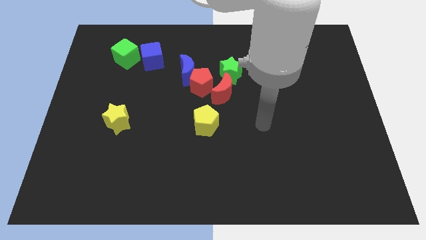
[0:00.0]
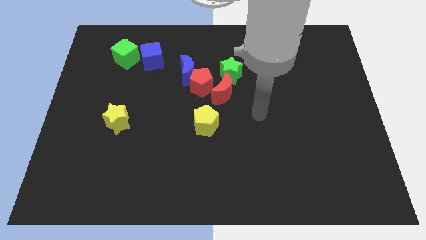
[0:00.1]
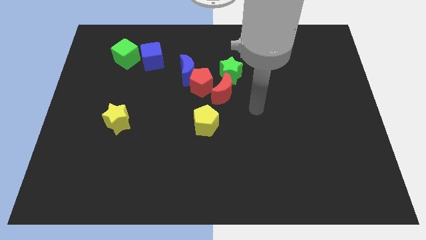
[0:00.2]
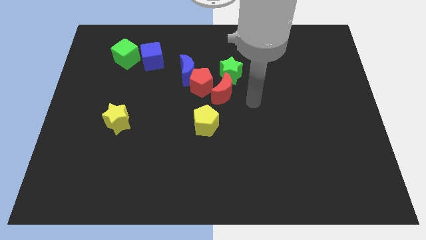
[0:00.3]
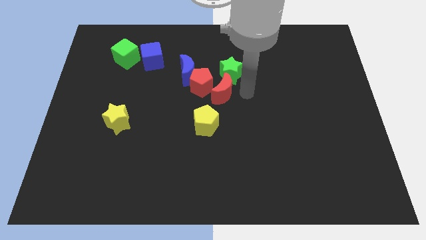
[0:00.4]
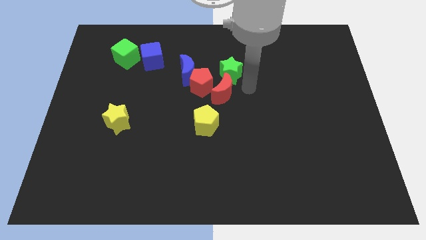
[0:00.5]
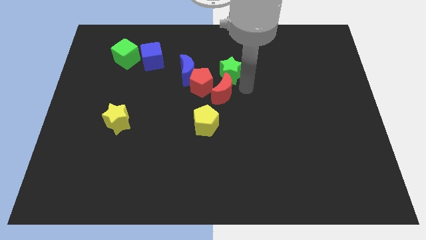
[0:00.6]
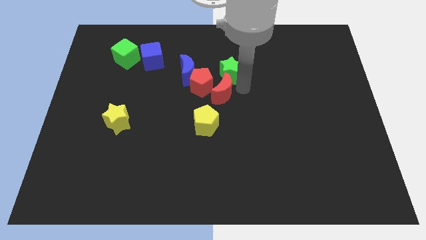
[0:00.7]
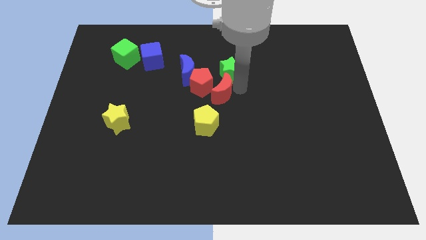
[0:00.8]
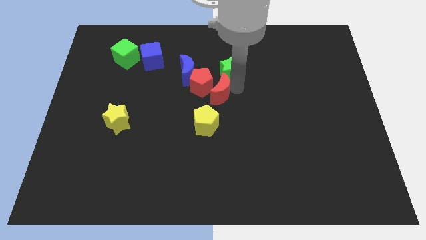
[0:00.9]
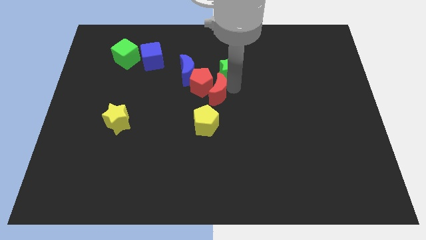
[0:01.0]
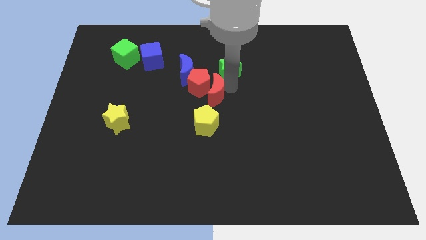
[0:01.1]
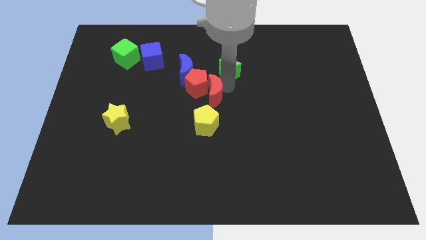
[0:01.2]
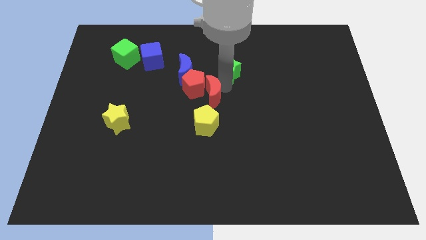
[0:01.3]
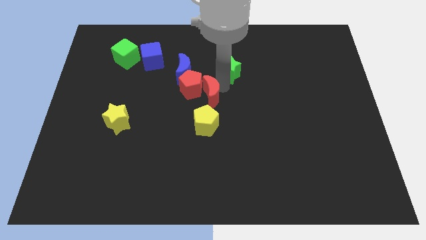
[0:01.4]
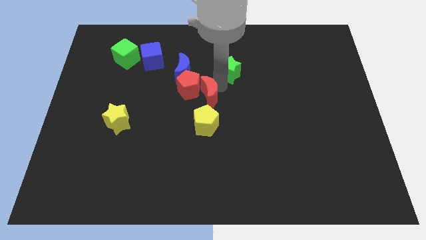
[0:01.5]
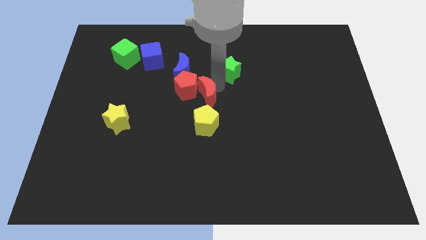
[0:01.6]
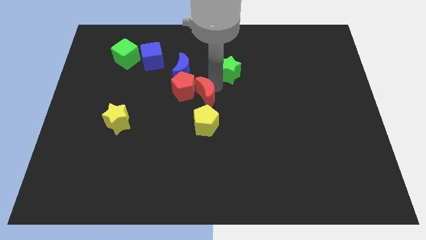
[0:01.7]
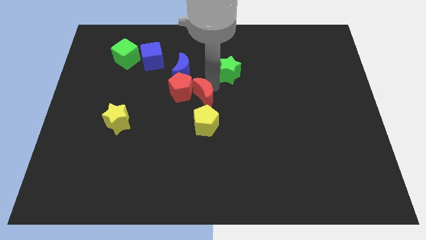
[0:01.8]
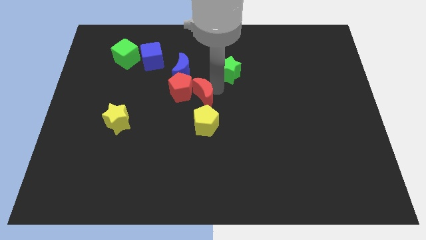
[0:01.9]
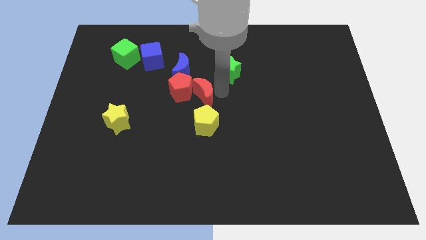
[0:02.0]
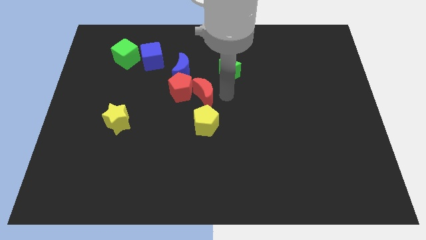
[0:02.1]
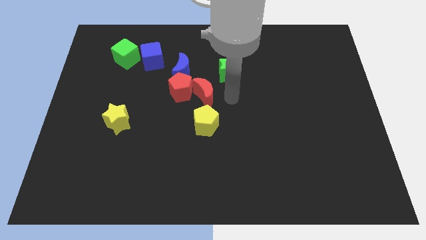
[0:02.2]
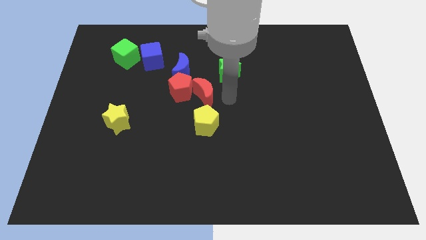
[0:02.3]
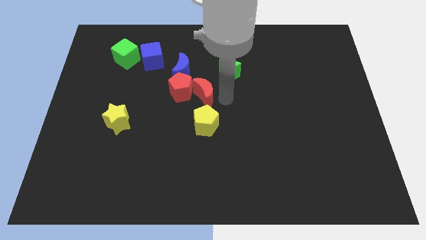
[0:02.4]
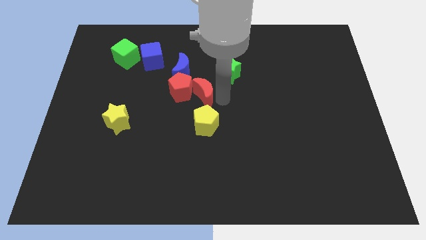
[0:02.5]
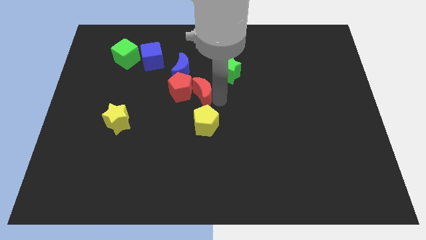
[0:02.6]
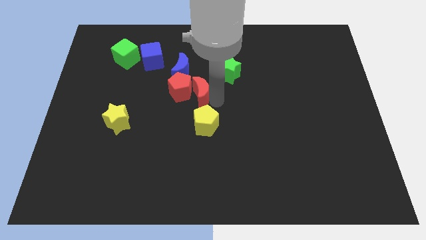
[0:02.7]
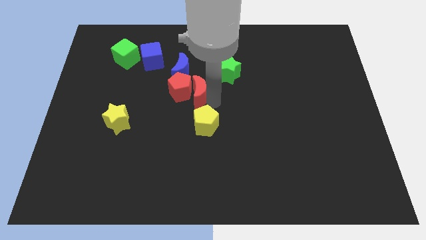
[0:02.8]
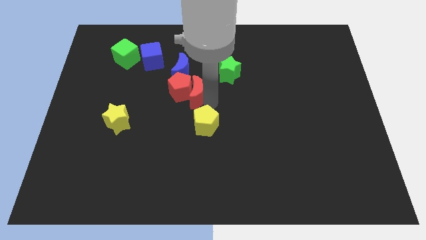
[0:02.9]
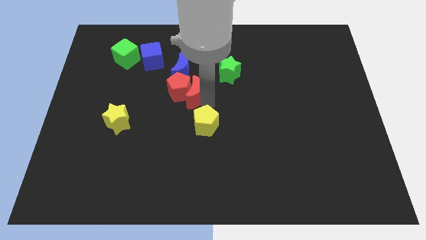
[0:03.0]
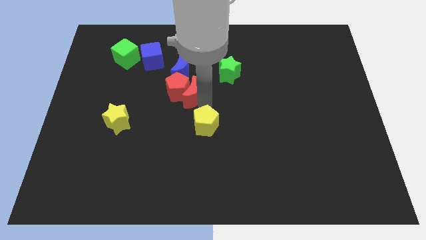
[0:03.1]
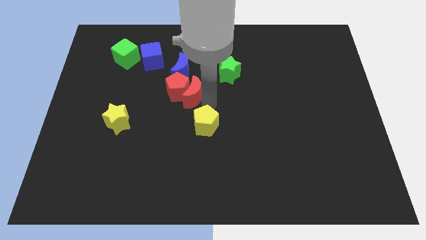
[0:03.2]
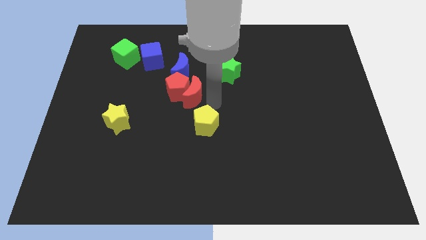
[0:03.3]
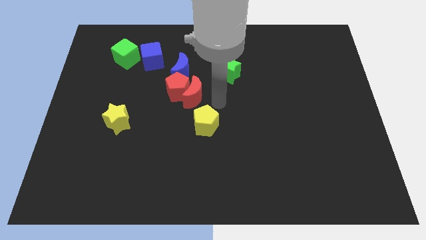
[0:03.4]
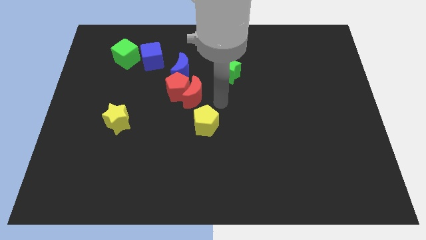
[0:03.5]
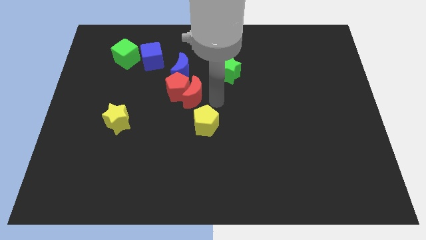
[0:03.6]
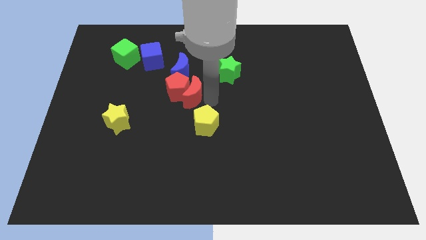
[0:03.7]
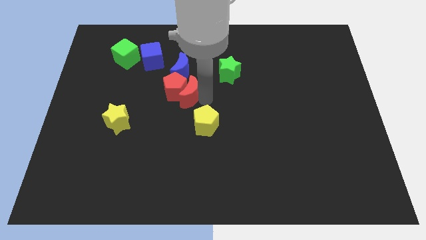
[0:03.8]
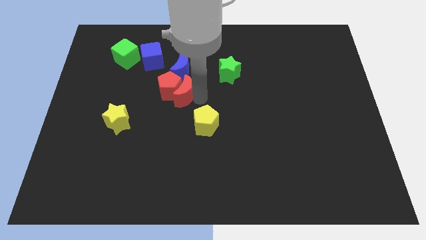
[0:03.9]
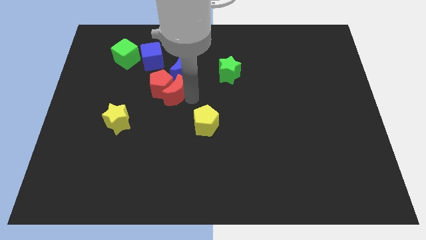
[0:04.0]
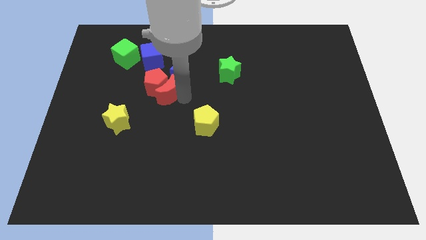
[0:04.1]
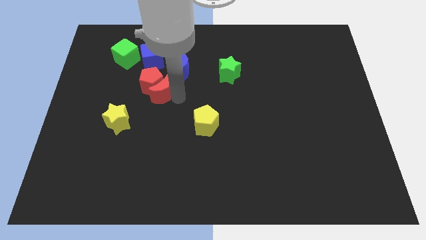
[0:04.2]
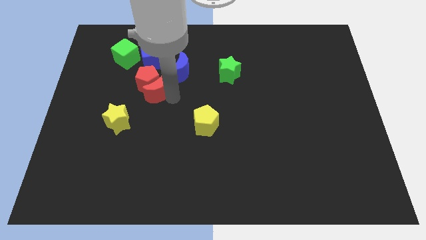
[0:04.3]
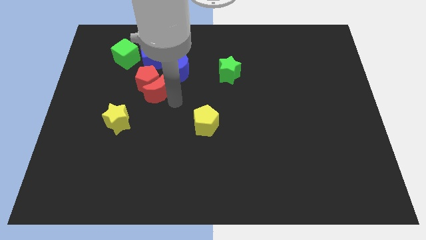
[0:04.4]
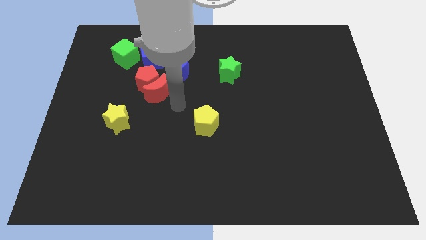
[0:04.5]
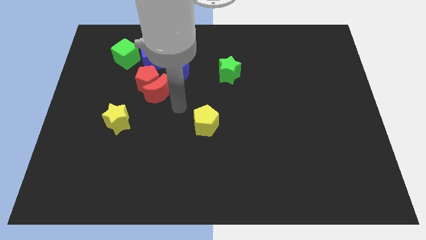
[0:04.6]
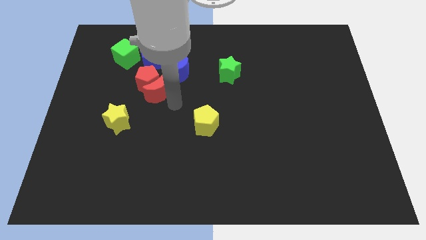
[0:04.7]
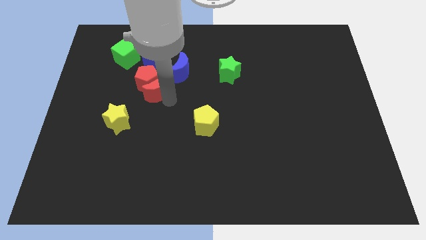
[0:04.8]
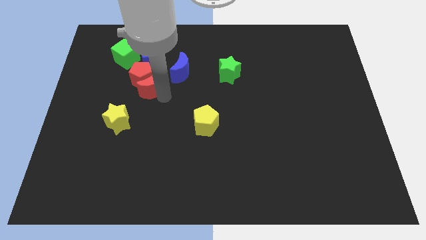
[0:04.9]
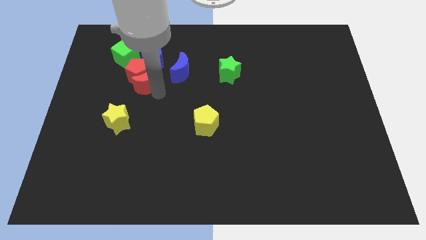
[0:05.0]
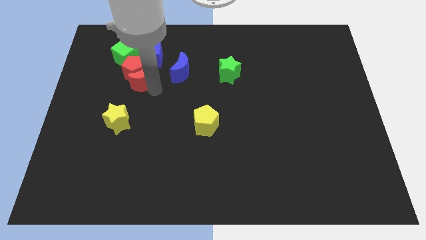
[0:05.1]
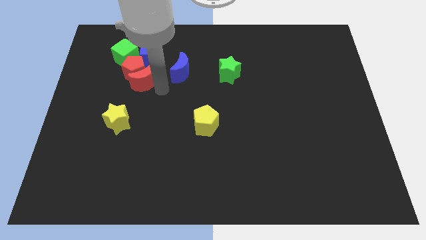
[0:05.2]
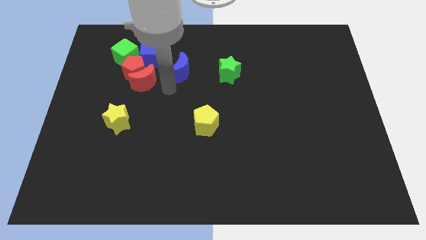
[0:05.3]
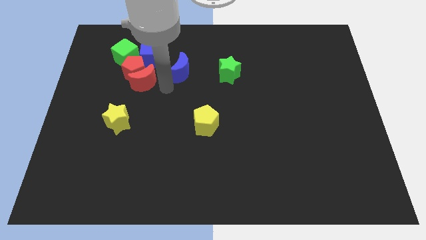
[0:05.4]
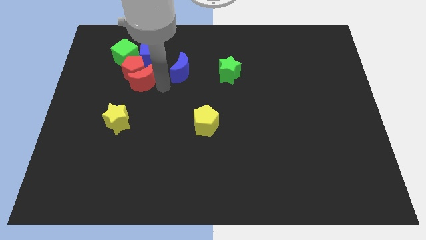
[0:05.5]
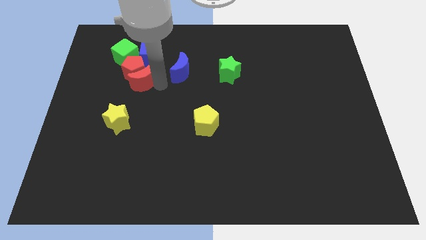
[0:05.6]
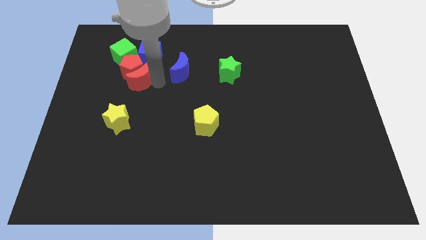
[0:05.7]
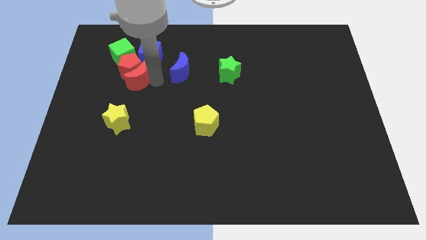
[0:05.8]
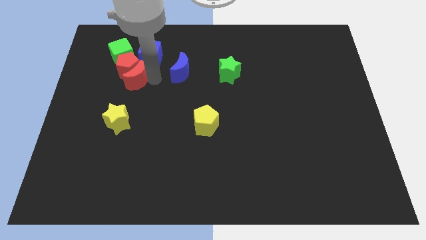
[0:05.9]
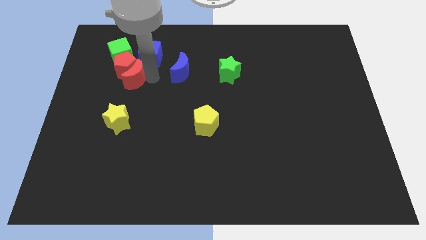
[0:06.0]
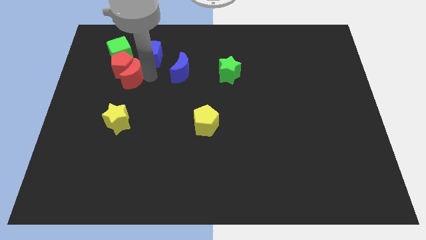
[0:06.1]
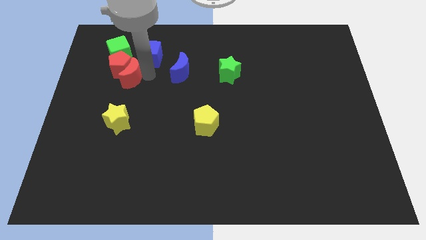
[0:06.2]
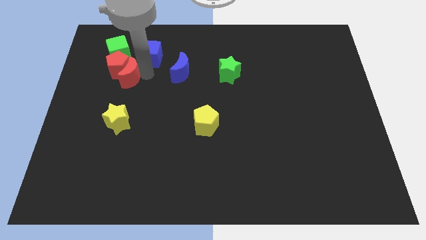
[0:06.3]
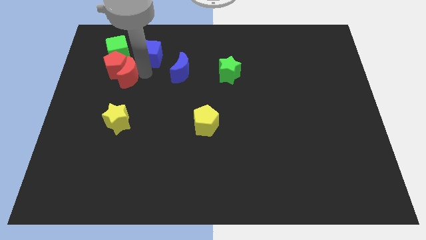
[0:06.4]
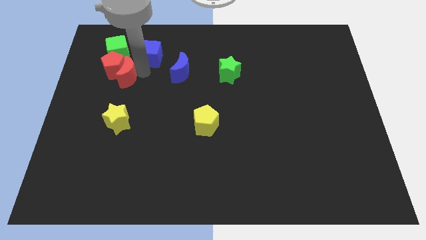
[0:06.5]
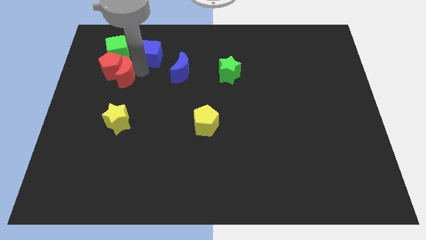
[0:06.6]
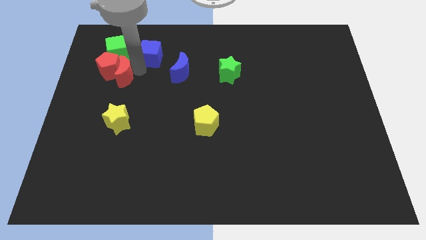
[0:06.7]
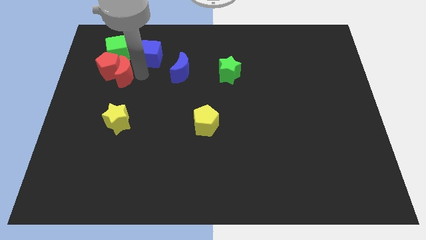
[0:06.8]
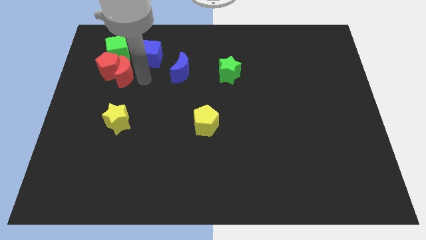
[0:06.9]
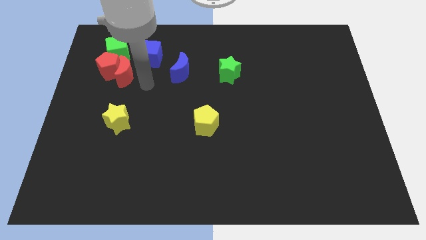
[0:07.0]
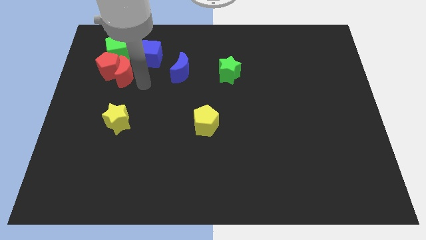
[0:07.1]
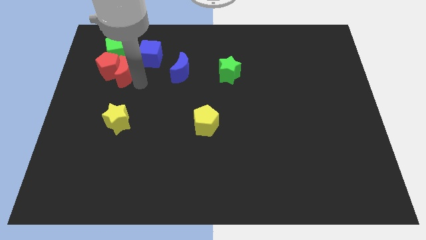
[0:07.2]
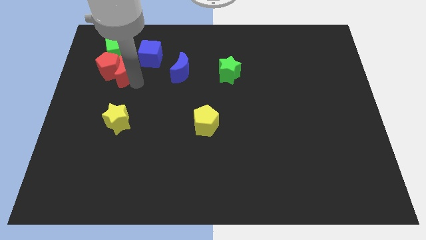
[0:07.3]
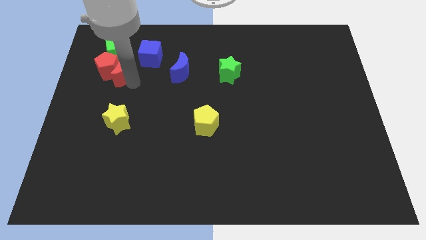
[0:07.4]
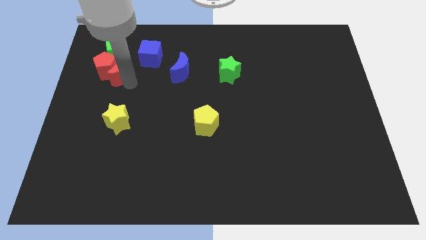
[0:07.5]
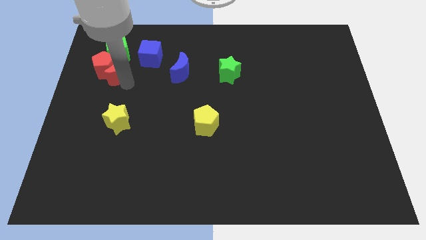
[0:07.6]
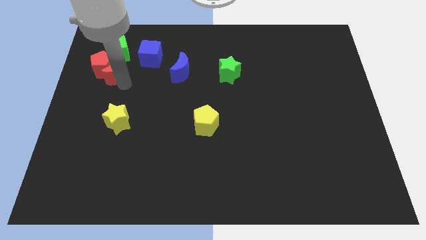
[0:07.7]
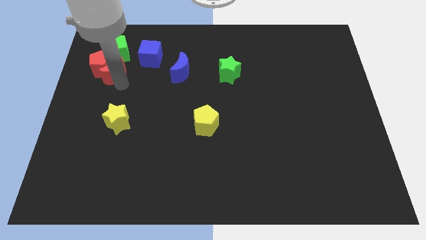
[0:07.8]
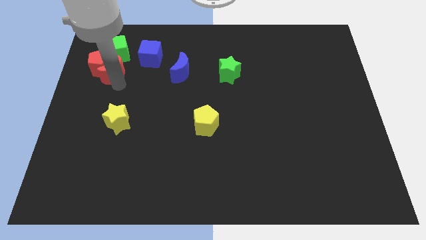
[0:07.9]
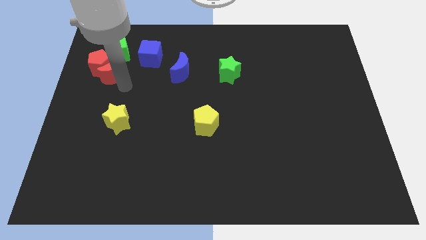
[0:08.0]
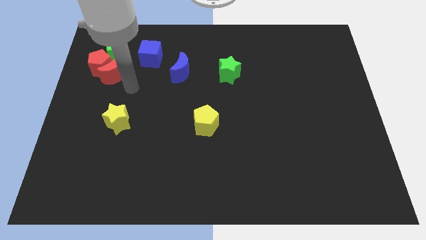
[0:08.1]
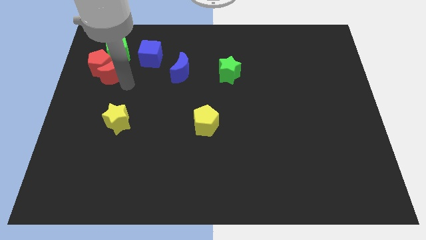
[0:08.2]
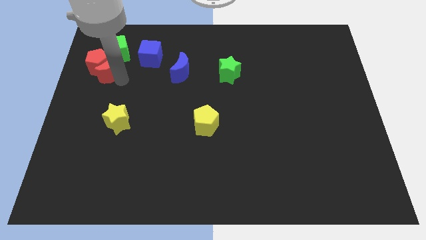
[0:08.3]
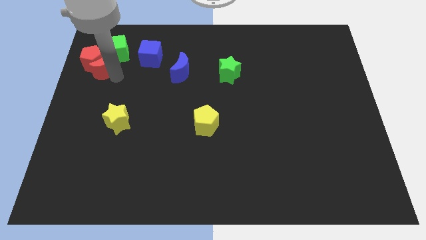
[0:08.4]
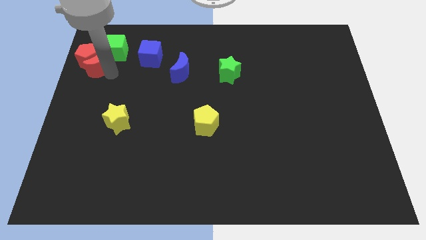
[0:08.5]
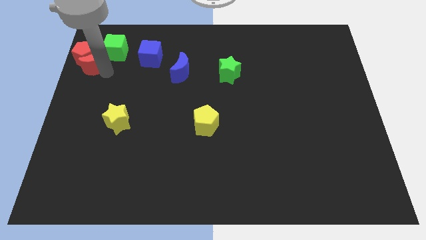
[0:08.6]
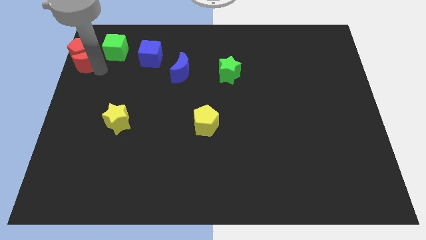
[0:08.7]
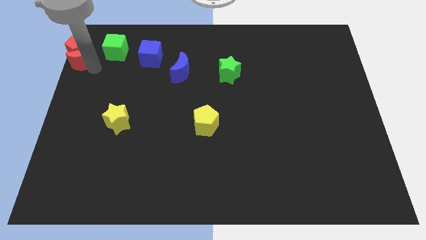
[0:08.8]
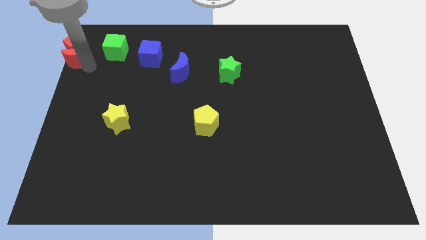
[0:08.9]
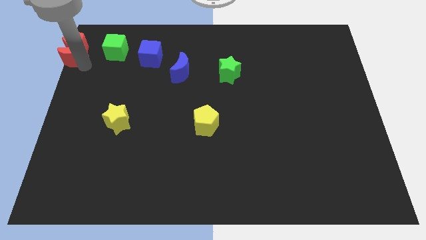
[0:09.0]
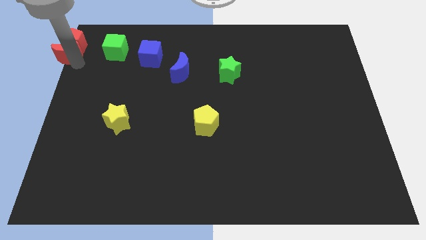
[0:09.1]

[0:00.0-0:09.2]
push the red moon to the upper left corner
